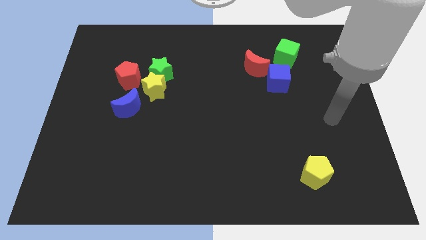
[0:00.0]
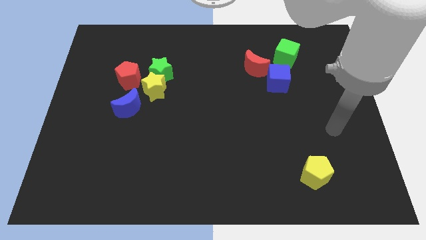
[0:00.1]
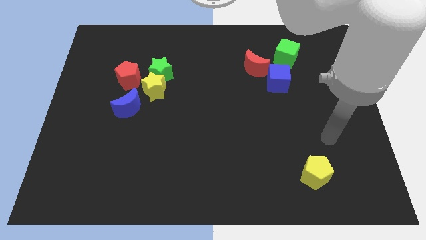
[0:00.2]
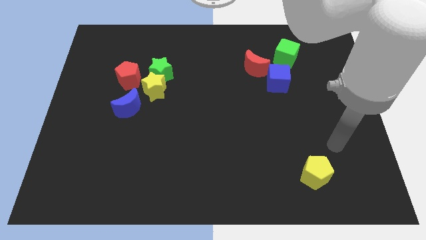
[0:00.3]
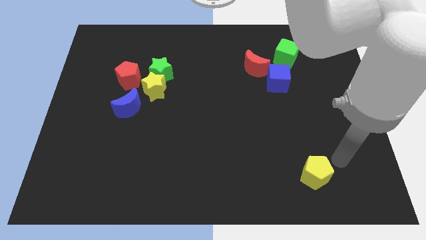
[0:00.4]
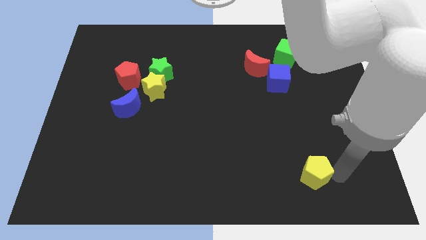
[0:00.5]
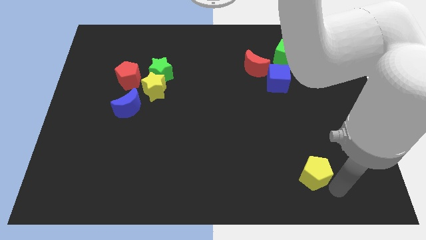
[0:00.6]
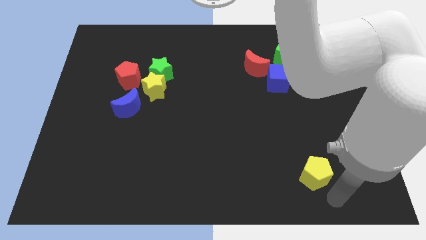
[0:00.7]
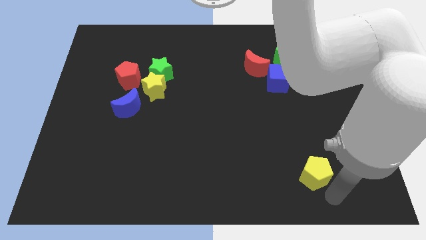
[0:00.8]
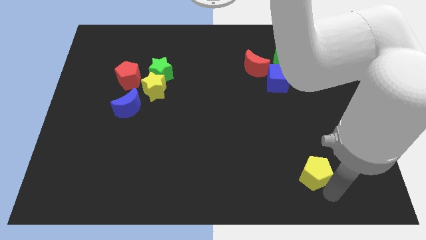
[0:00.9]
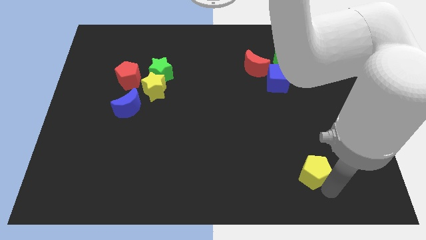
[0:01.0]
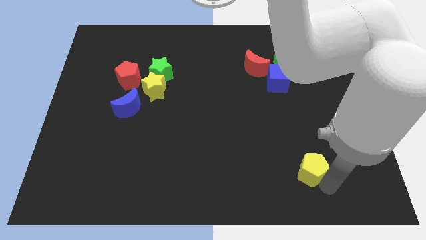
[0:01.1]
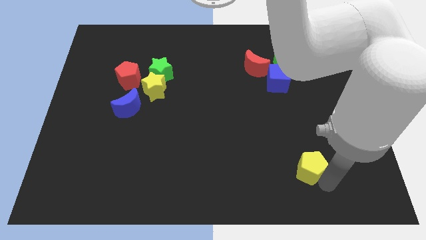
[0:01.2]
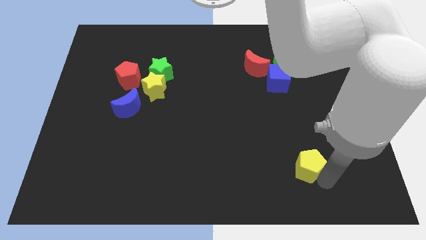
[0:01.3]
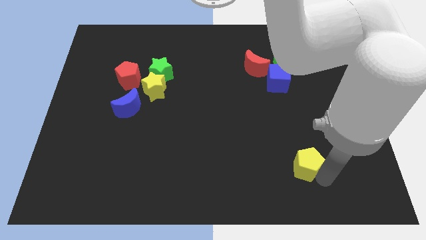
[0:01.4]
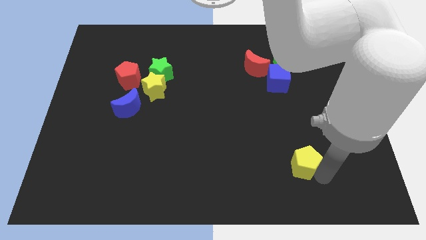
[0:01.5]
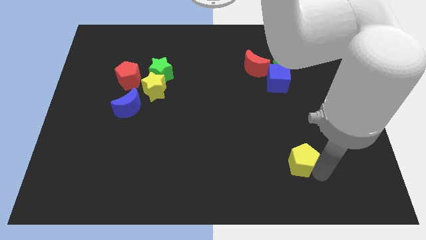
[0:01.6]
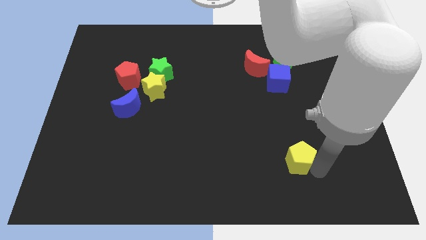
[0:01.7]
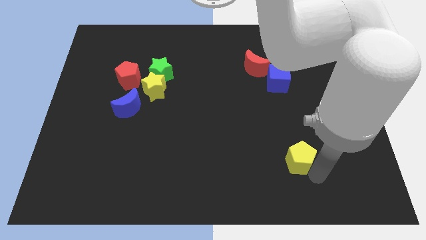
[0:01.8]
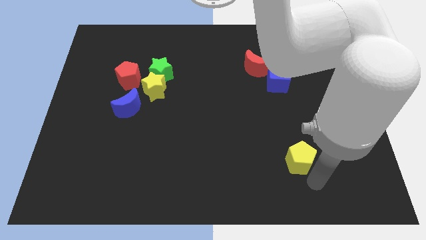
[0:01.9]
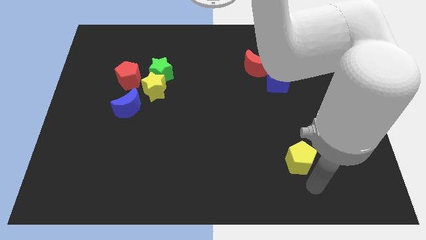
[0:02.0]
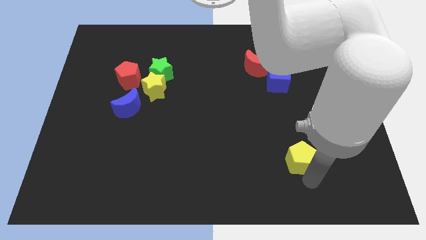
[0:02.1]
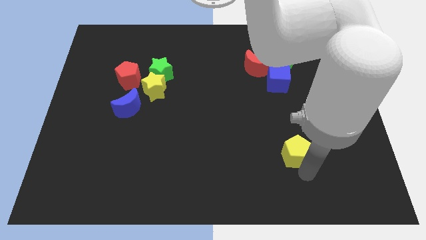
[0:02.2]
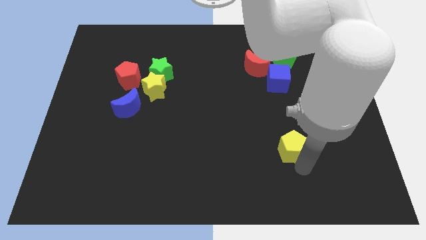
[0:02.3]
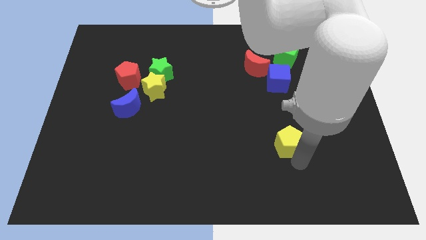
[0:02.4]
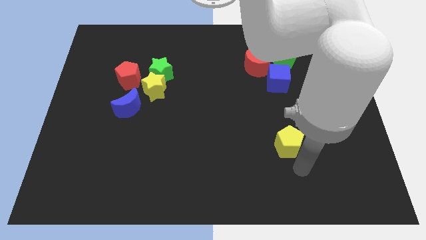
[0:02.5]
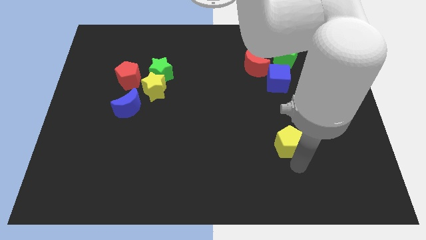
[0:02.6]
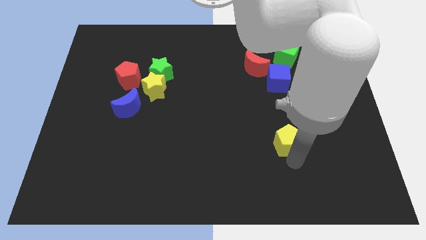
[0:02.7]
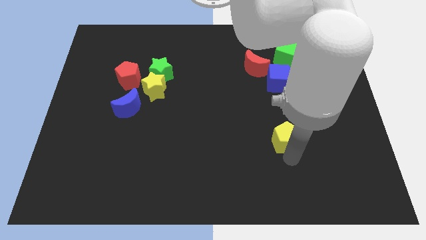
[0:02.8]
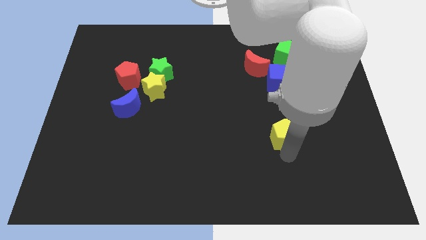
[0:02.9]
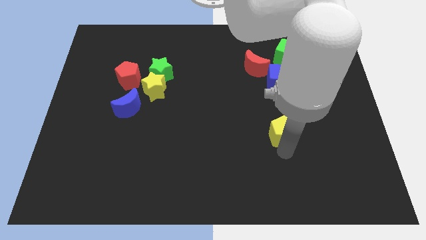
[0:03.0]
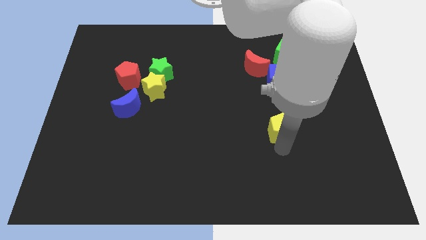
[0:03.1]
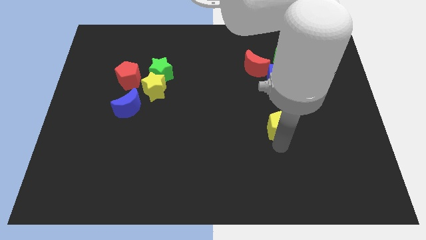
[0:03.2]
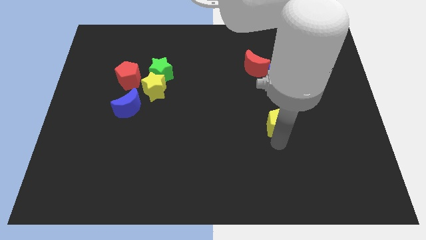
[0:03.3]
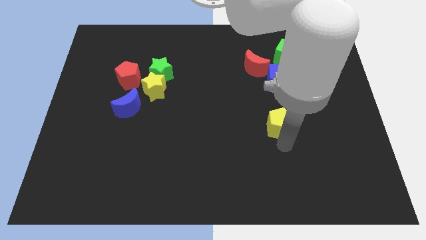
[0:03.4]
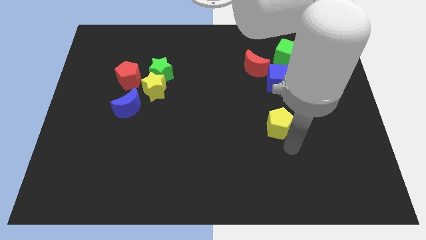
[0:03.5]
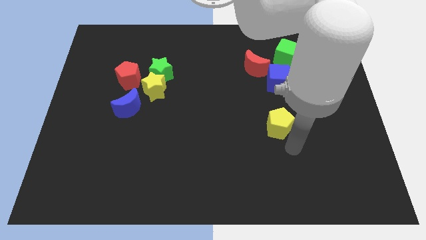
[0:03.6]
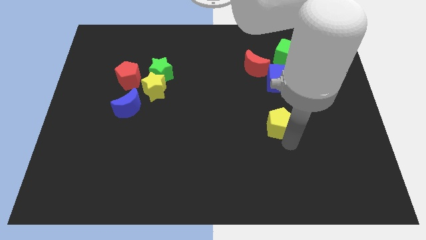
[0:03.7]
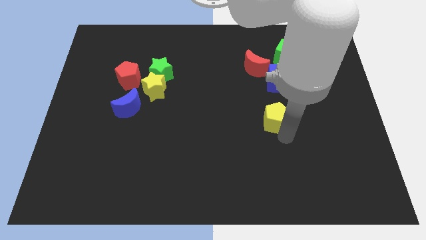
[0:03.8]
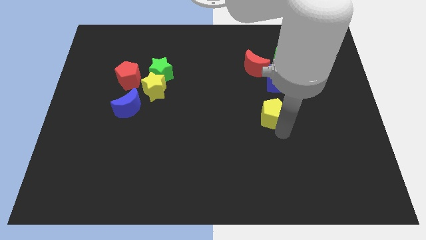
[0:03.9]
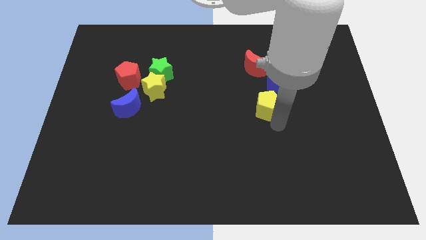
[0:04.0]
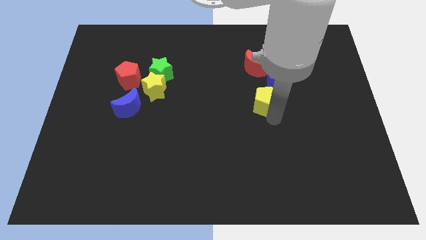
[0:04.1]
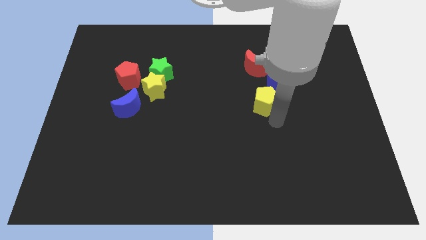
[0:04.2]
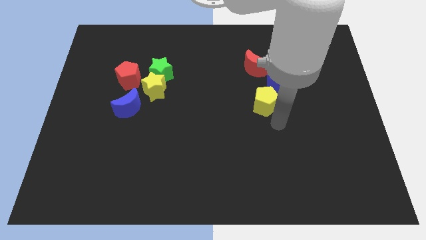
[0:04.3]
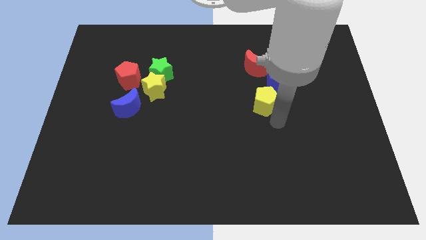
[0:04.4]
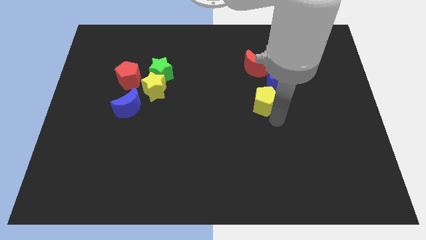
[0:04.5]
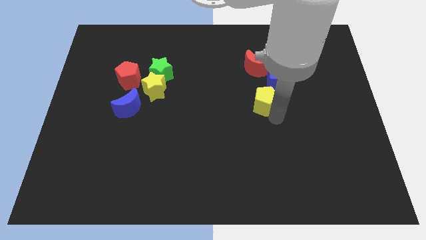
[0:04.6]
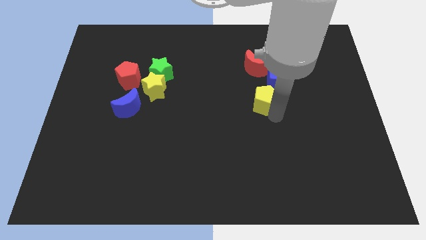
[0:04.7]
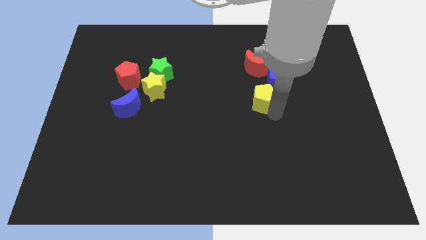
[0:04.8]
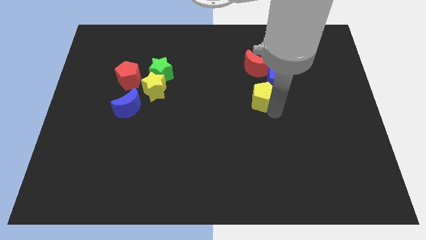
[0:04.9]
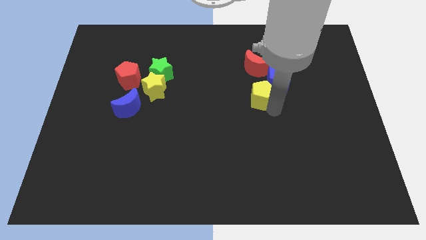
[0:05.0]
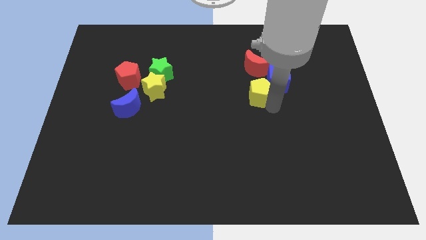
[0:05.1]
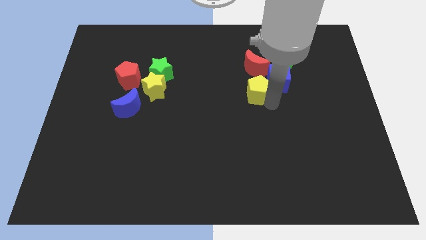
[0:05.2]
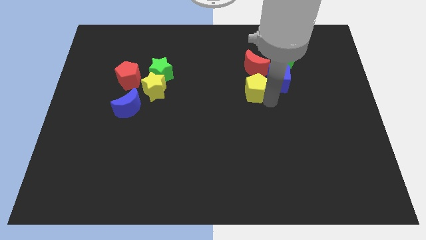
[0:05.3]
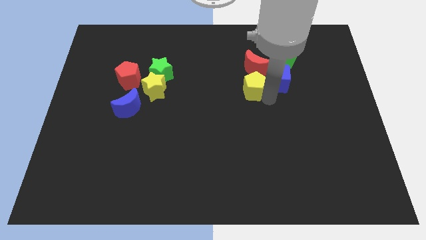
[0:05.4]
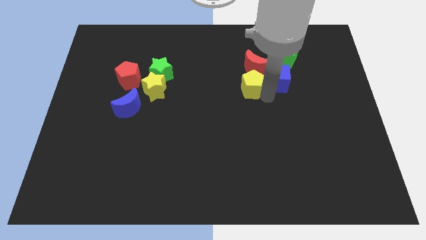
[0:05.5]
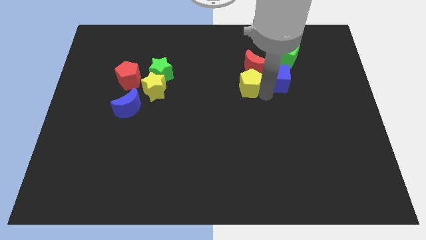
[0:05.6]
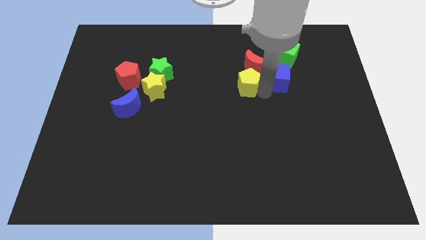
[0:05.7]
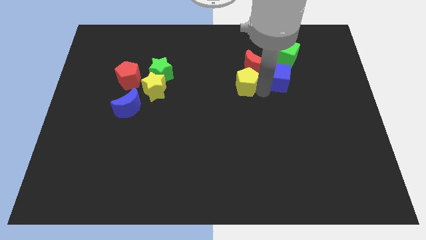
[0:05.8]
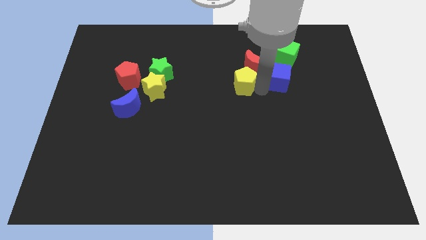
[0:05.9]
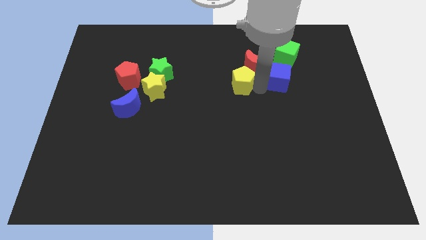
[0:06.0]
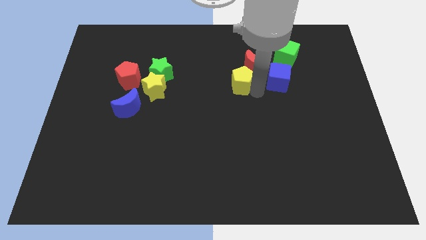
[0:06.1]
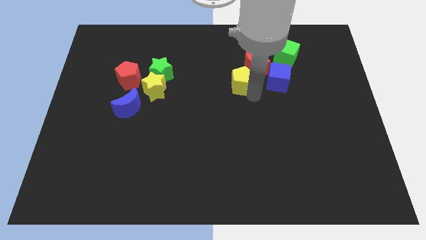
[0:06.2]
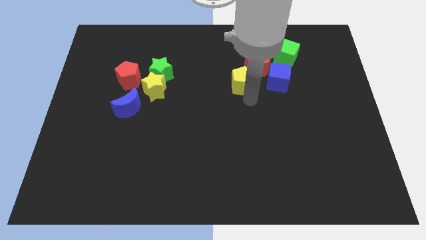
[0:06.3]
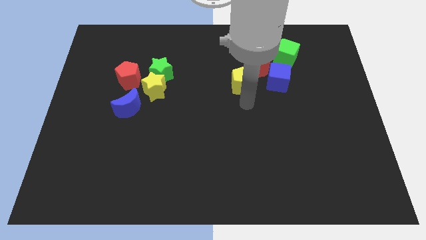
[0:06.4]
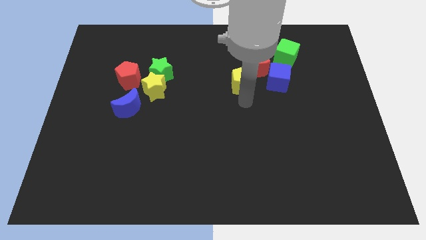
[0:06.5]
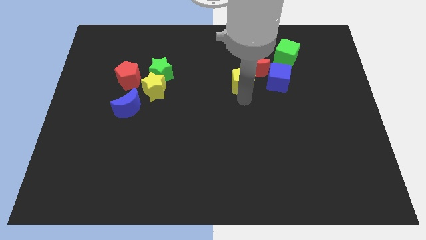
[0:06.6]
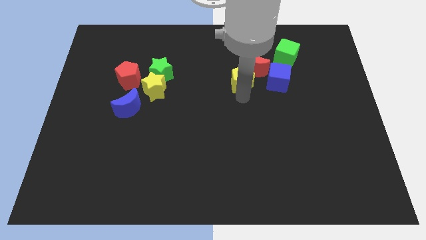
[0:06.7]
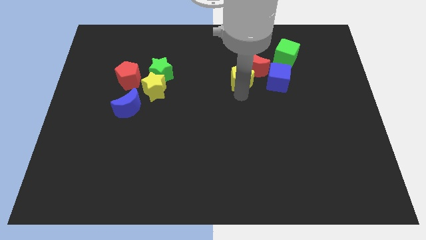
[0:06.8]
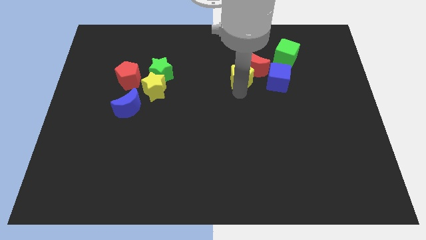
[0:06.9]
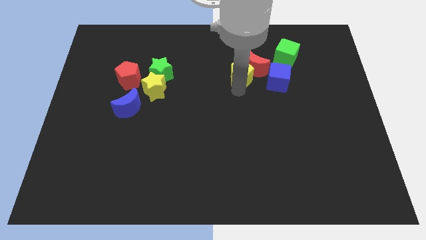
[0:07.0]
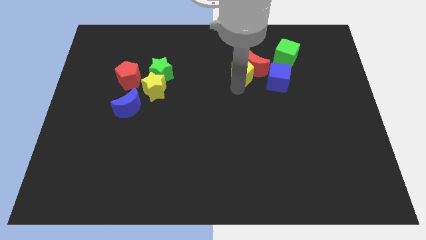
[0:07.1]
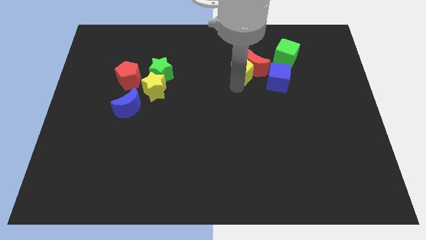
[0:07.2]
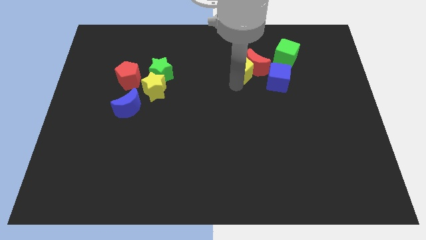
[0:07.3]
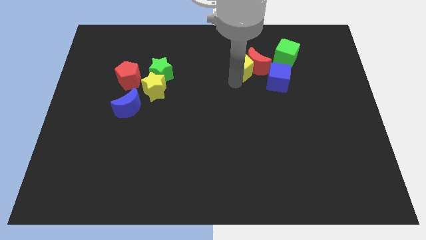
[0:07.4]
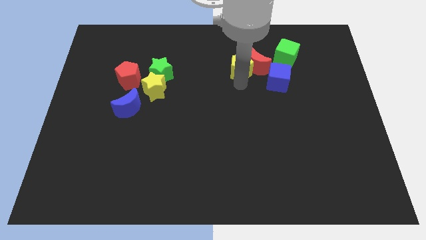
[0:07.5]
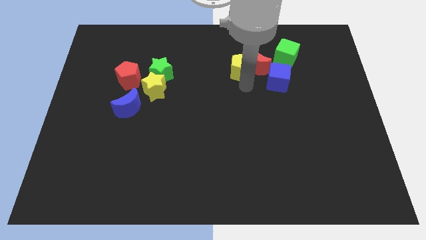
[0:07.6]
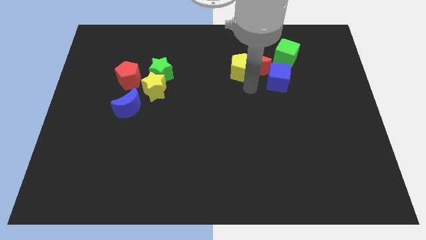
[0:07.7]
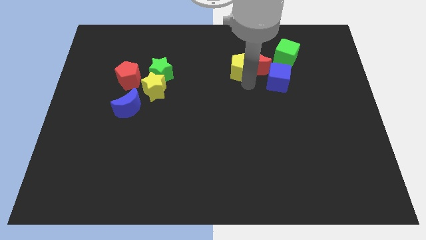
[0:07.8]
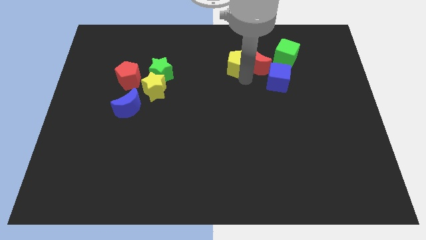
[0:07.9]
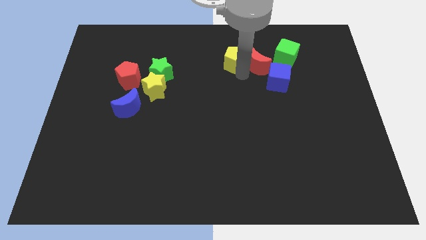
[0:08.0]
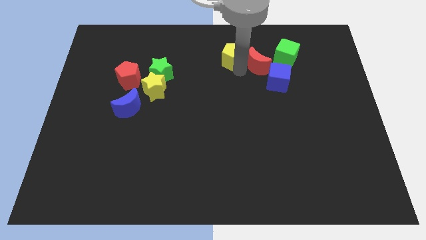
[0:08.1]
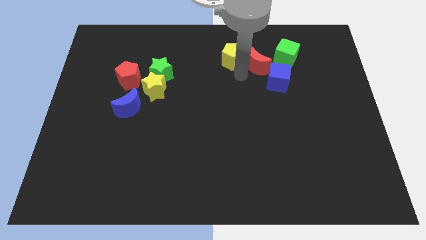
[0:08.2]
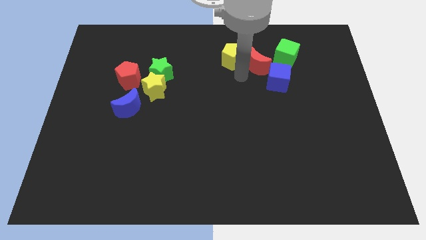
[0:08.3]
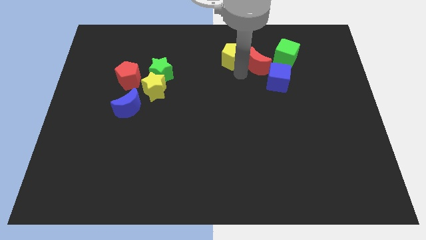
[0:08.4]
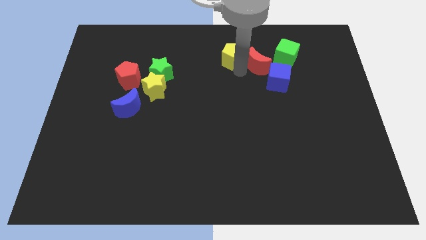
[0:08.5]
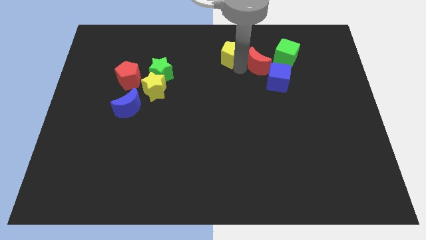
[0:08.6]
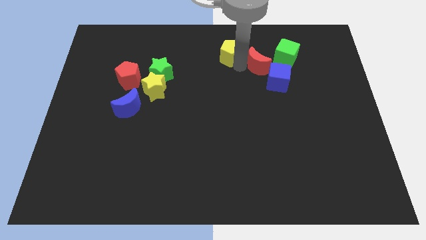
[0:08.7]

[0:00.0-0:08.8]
slide the yellow pentagon to the towards your base
